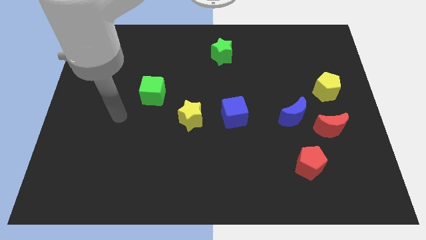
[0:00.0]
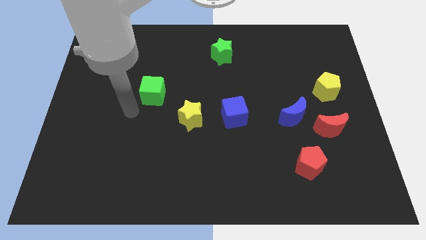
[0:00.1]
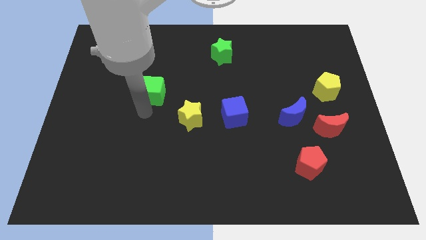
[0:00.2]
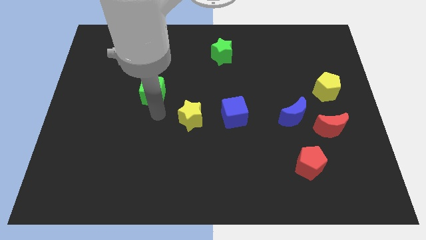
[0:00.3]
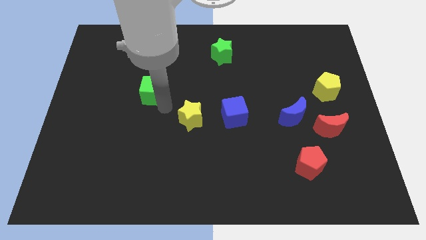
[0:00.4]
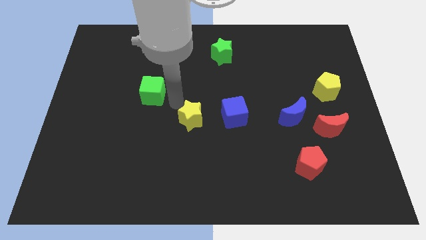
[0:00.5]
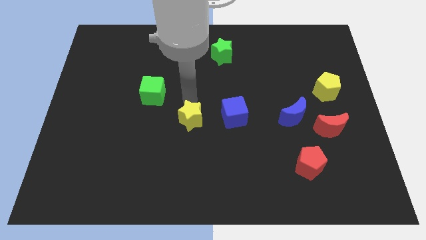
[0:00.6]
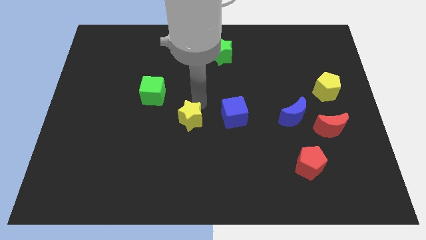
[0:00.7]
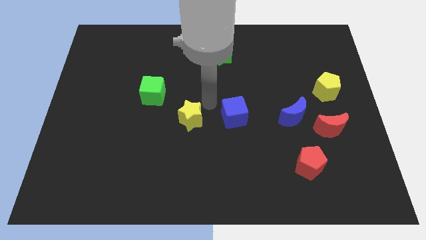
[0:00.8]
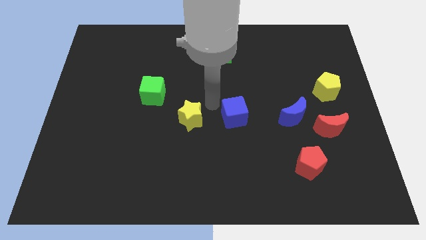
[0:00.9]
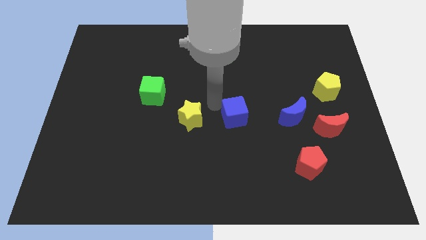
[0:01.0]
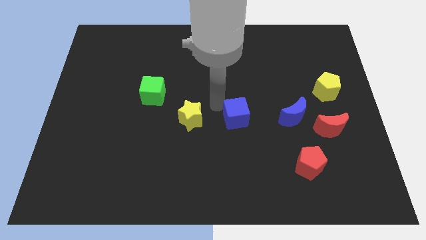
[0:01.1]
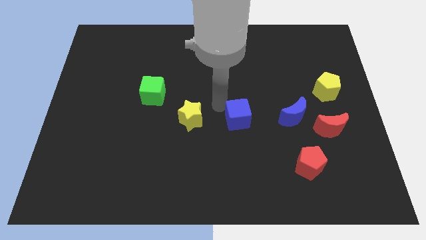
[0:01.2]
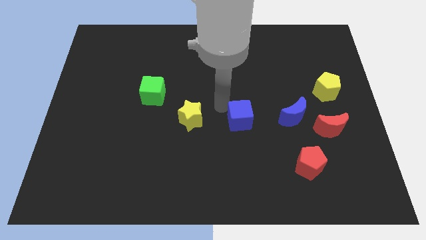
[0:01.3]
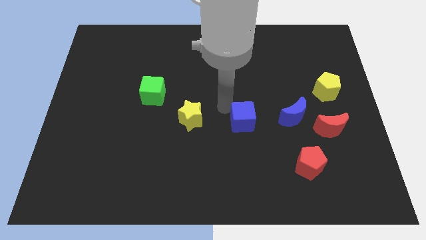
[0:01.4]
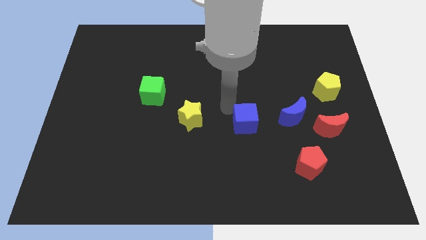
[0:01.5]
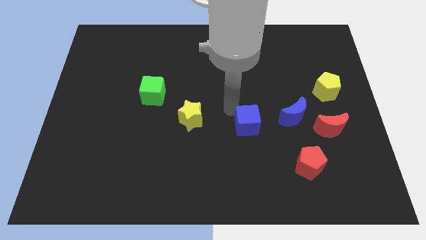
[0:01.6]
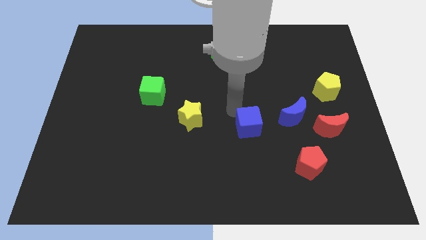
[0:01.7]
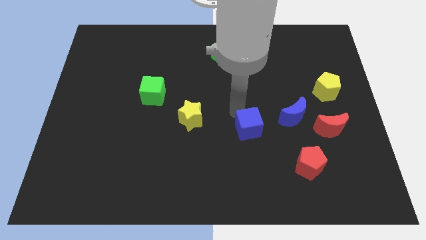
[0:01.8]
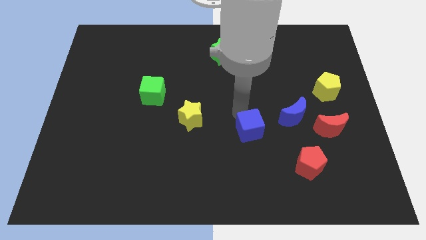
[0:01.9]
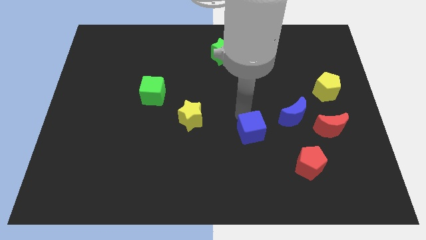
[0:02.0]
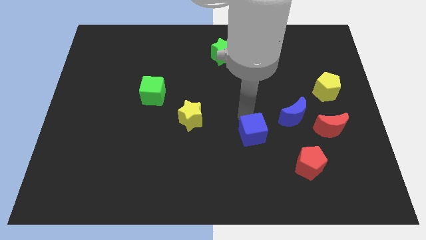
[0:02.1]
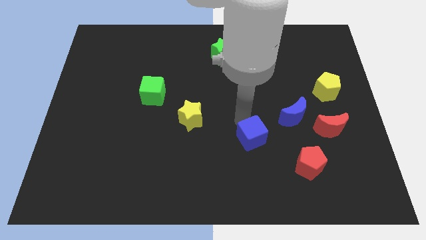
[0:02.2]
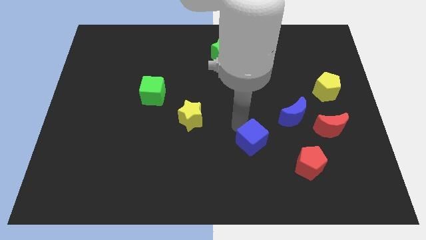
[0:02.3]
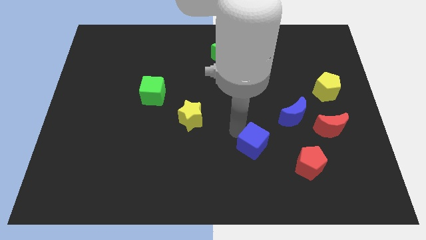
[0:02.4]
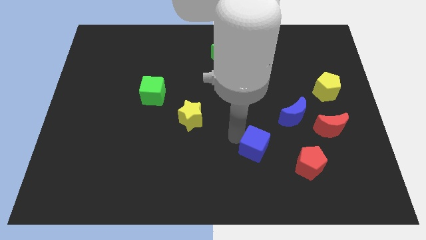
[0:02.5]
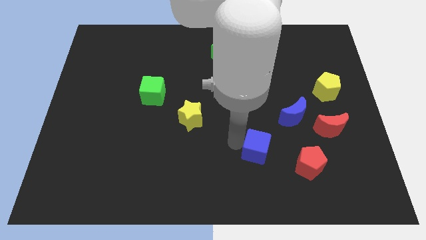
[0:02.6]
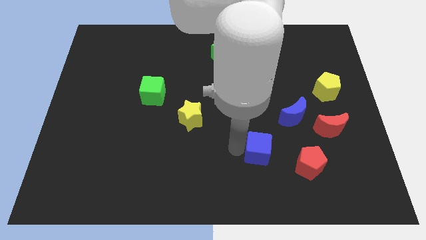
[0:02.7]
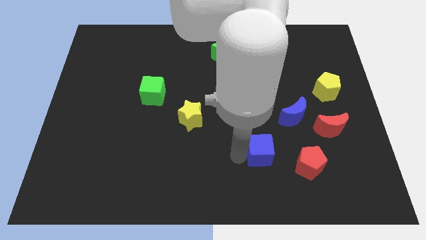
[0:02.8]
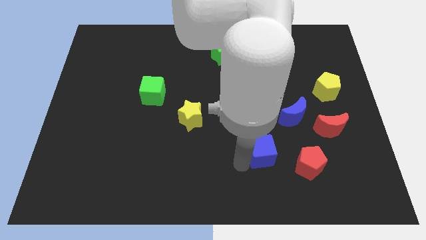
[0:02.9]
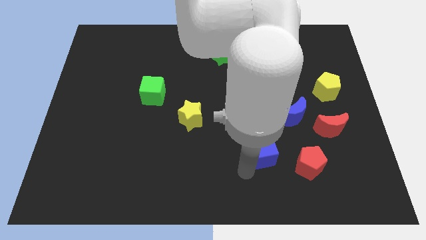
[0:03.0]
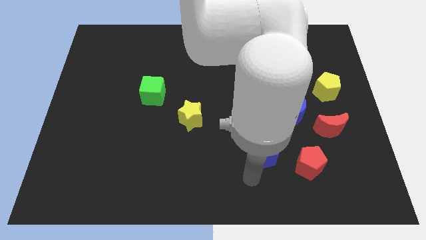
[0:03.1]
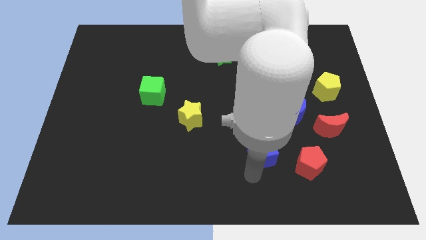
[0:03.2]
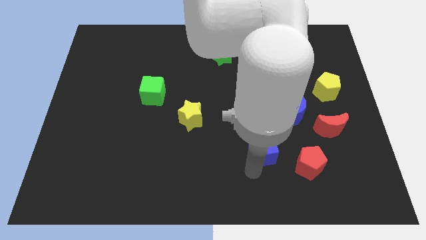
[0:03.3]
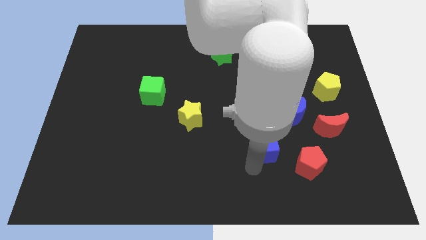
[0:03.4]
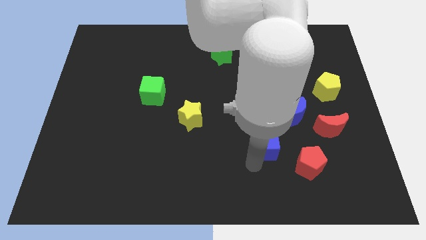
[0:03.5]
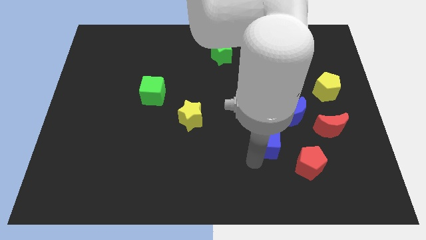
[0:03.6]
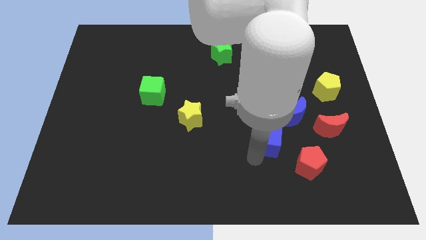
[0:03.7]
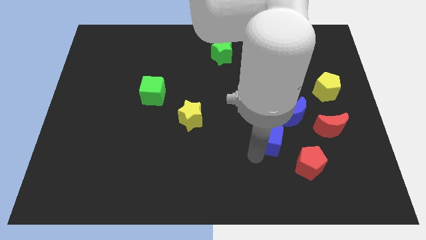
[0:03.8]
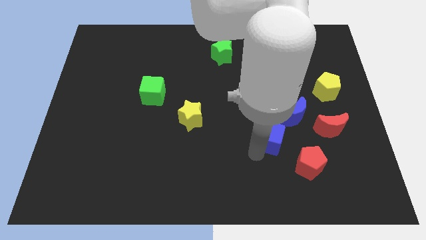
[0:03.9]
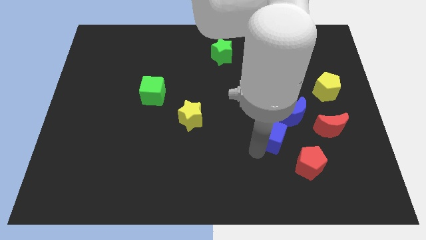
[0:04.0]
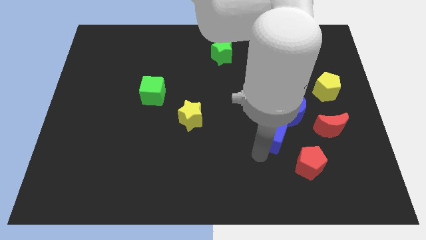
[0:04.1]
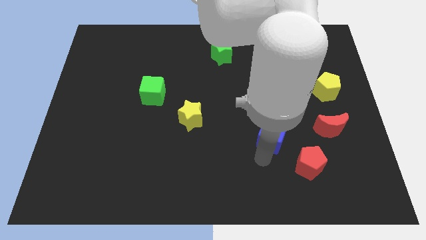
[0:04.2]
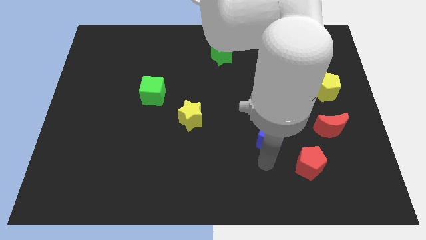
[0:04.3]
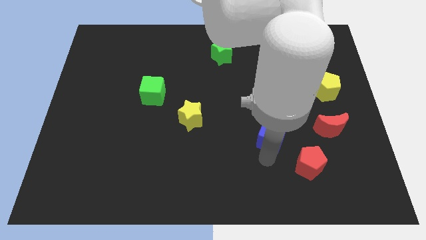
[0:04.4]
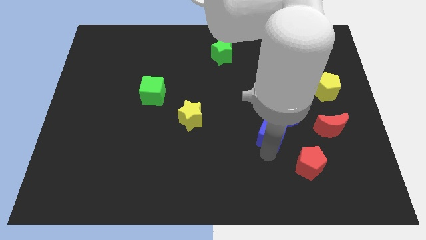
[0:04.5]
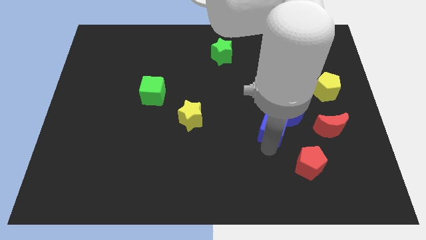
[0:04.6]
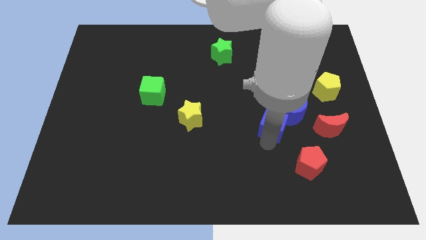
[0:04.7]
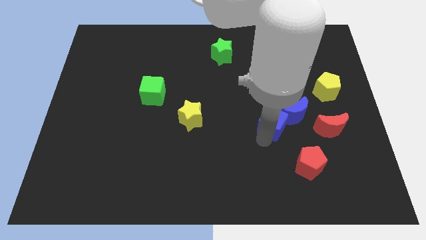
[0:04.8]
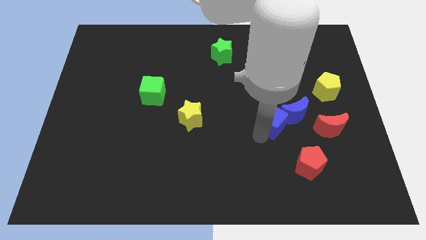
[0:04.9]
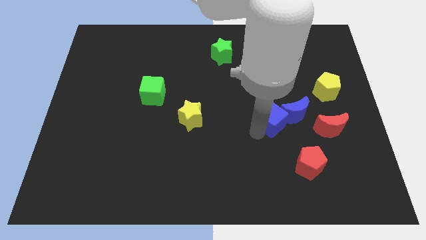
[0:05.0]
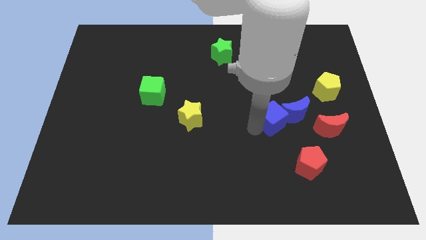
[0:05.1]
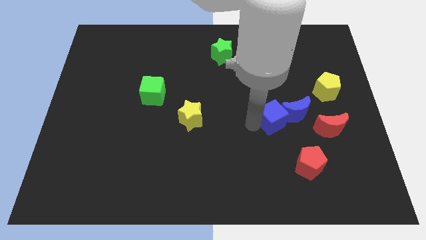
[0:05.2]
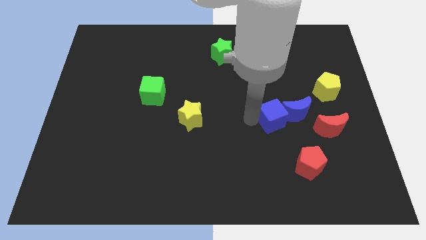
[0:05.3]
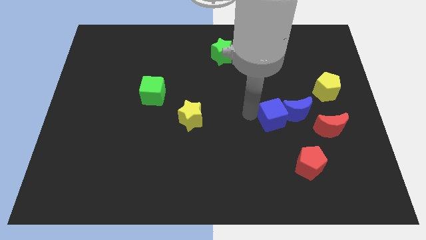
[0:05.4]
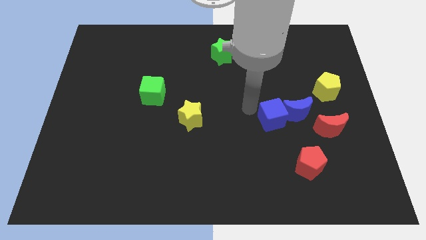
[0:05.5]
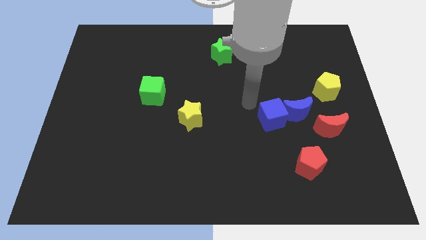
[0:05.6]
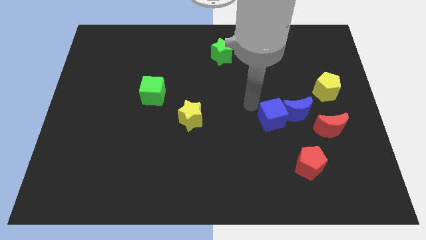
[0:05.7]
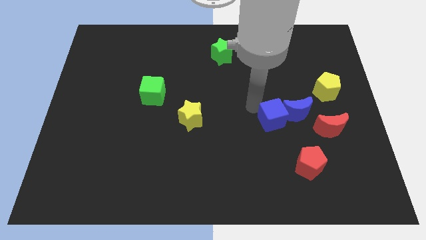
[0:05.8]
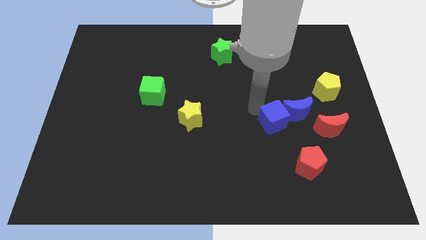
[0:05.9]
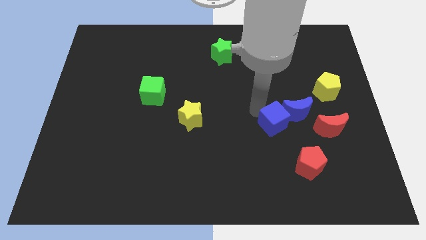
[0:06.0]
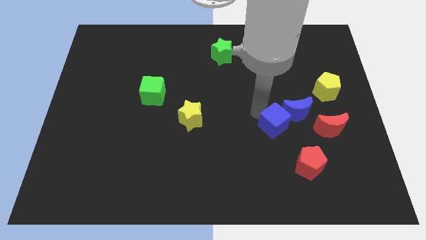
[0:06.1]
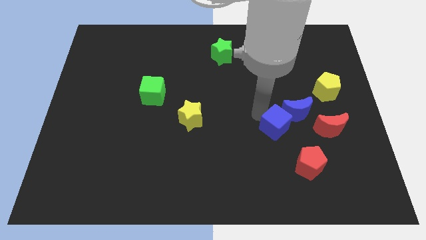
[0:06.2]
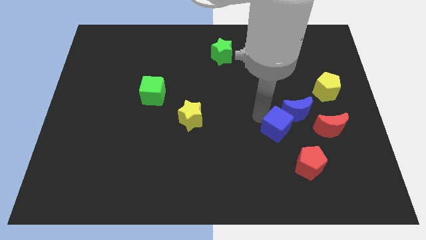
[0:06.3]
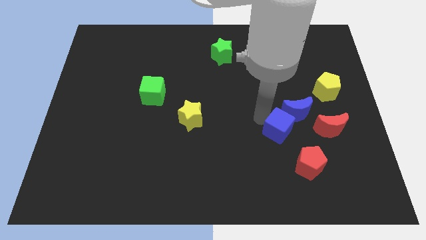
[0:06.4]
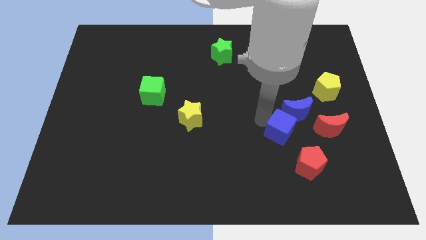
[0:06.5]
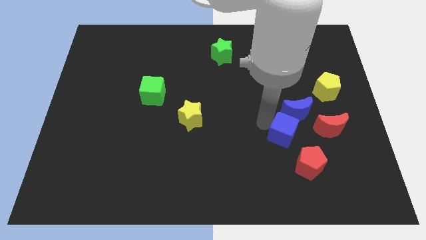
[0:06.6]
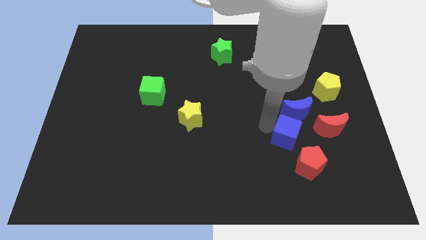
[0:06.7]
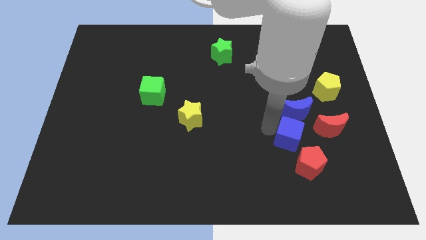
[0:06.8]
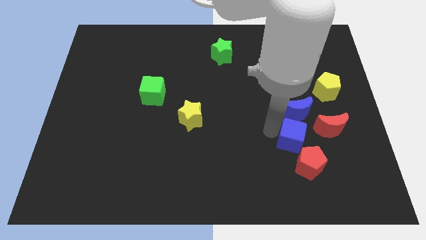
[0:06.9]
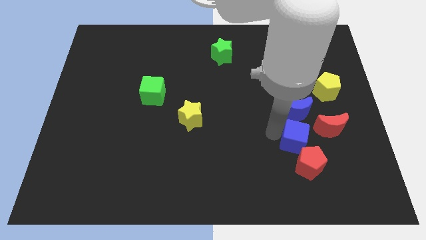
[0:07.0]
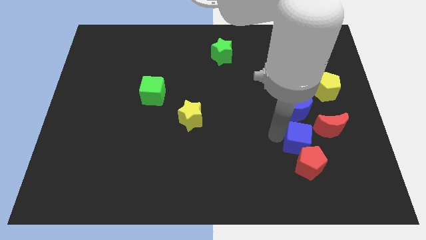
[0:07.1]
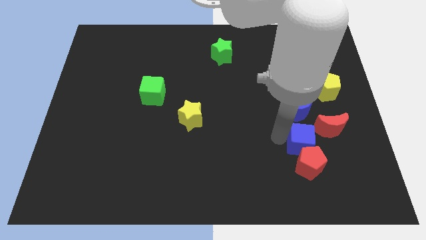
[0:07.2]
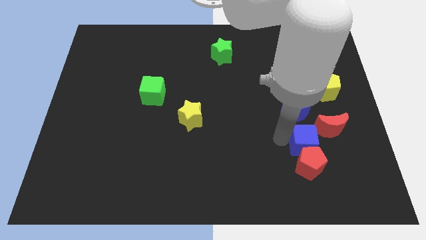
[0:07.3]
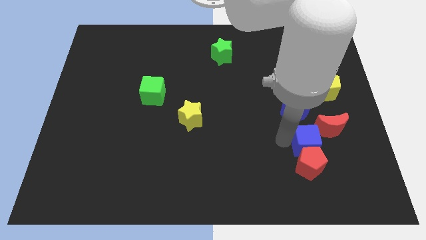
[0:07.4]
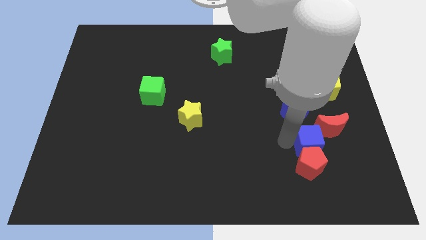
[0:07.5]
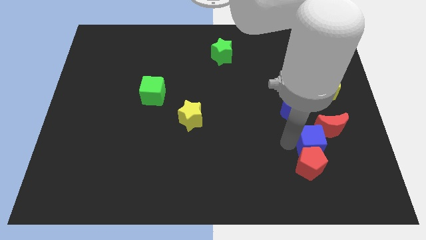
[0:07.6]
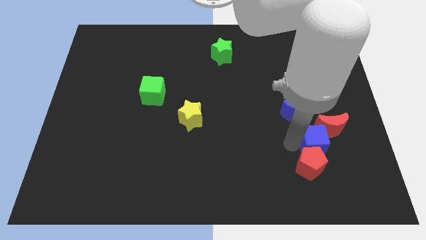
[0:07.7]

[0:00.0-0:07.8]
push the blue cube close to the red moon
